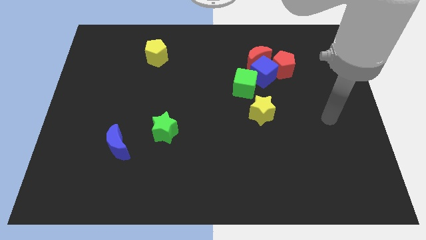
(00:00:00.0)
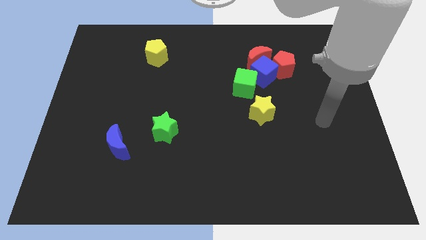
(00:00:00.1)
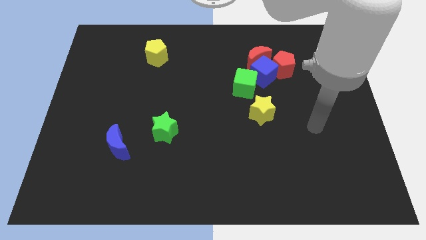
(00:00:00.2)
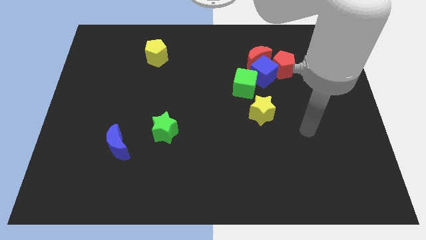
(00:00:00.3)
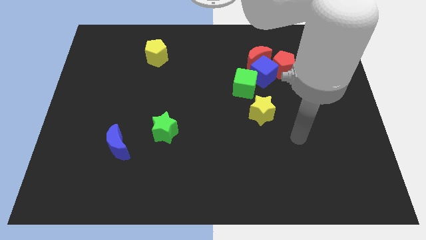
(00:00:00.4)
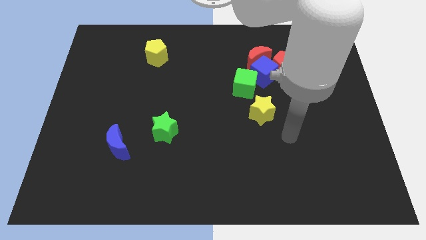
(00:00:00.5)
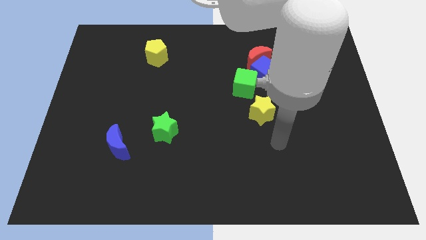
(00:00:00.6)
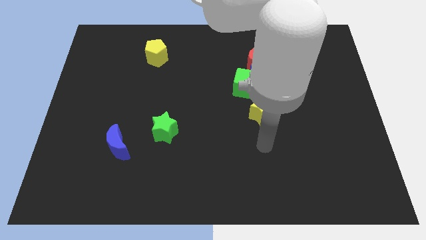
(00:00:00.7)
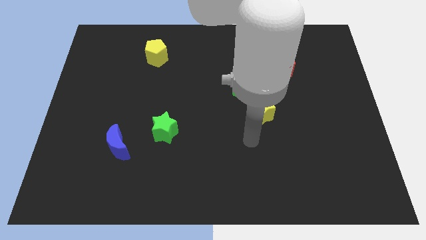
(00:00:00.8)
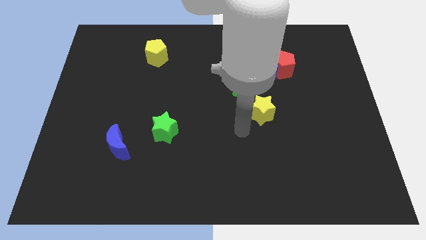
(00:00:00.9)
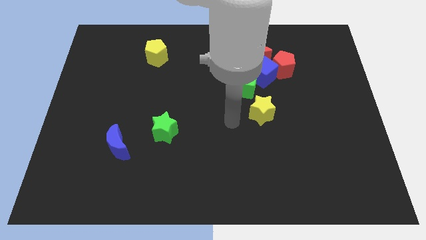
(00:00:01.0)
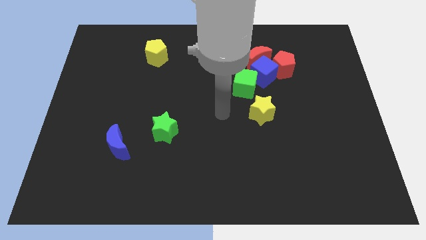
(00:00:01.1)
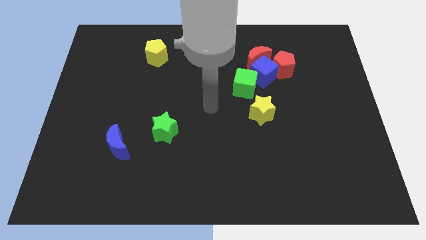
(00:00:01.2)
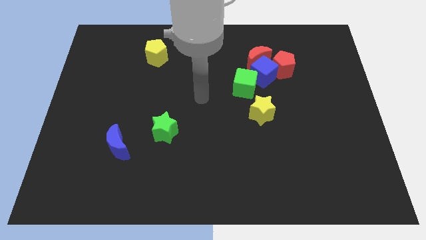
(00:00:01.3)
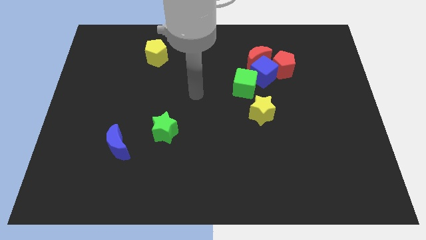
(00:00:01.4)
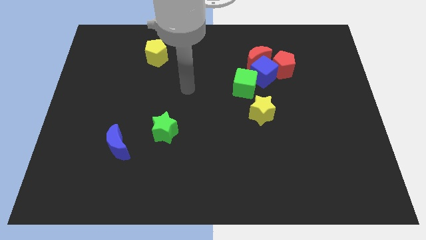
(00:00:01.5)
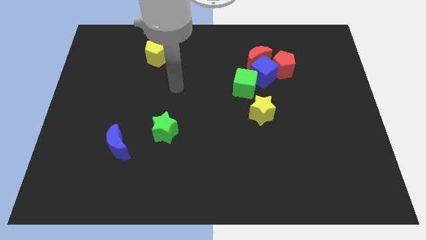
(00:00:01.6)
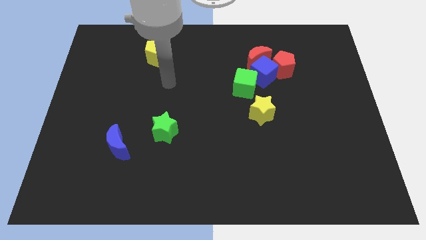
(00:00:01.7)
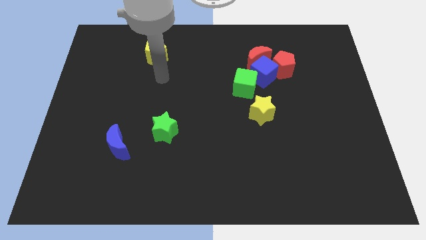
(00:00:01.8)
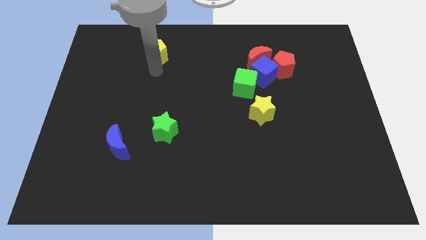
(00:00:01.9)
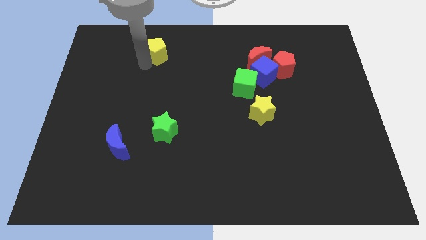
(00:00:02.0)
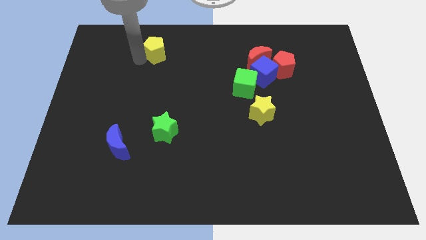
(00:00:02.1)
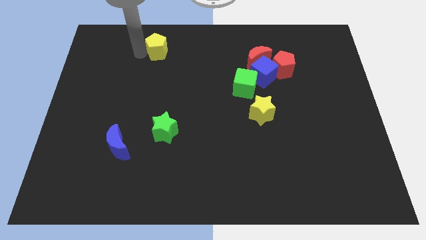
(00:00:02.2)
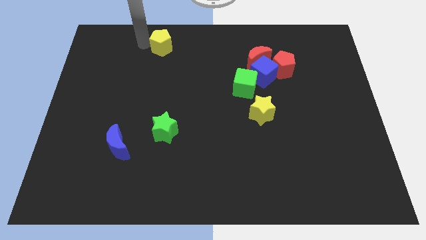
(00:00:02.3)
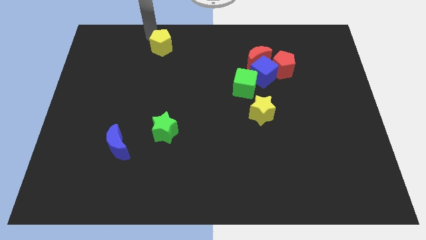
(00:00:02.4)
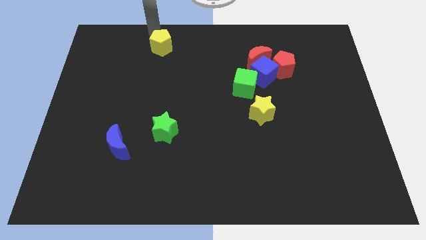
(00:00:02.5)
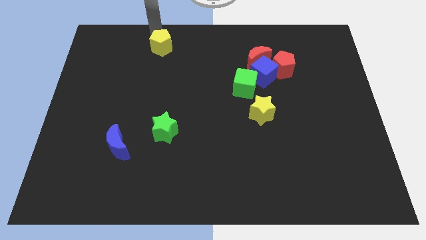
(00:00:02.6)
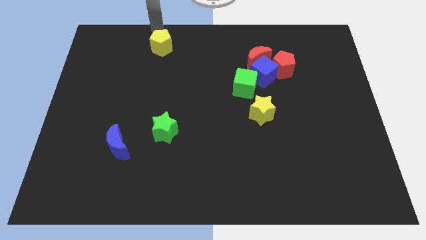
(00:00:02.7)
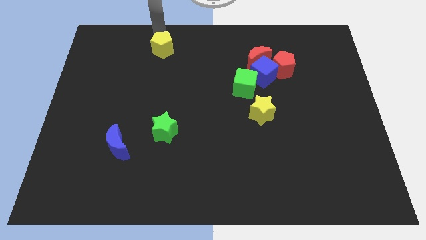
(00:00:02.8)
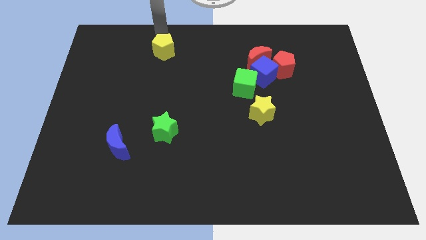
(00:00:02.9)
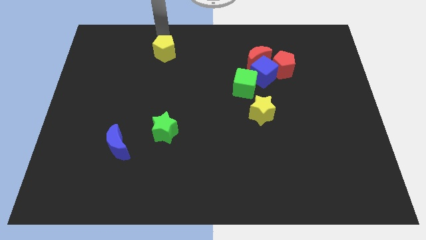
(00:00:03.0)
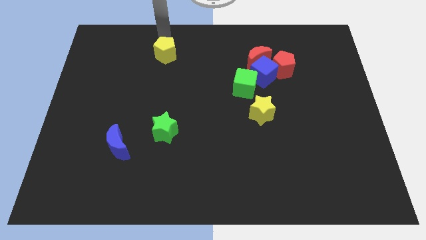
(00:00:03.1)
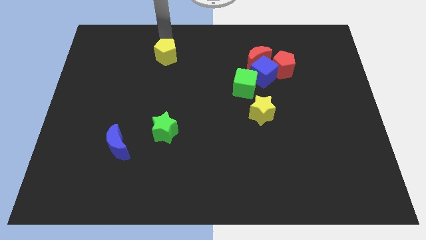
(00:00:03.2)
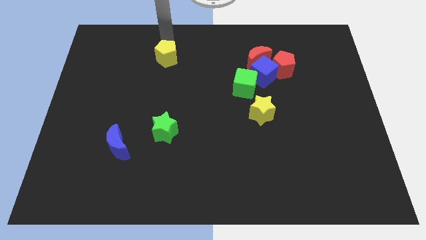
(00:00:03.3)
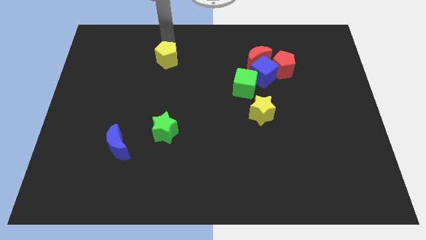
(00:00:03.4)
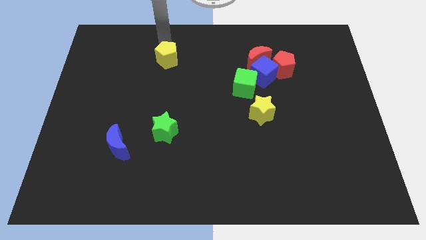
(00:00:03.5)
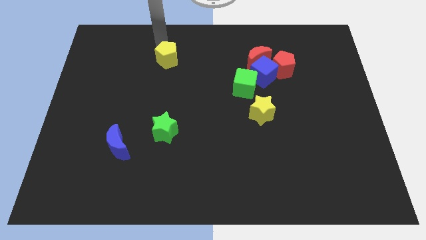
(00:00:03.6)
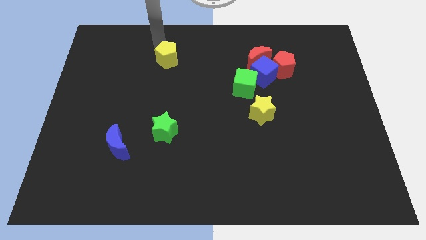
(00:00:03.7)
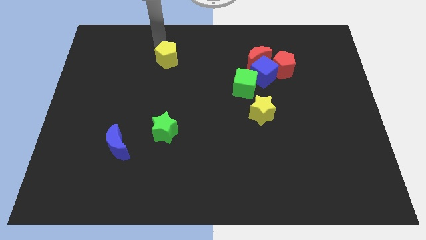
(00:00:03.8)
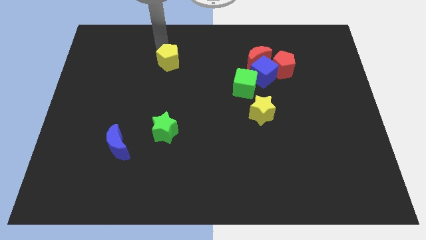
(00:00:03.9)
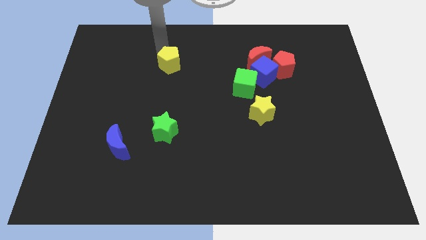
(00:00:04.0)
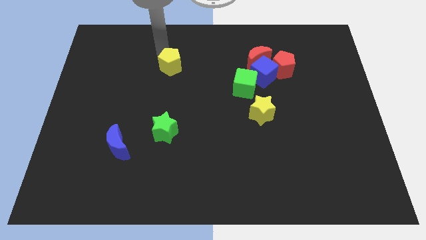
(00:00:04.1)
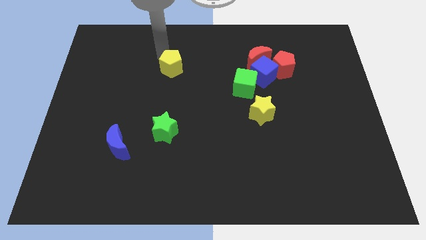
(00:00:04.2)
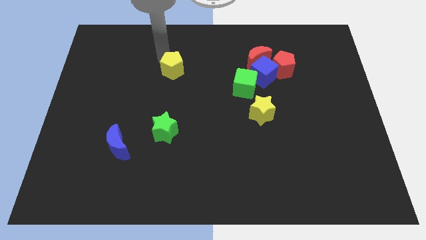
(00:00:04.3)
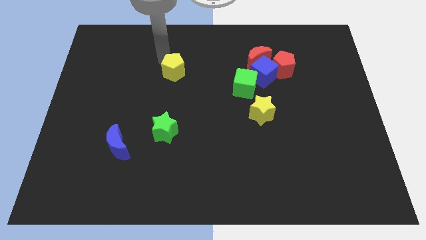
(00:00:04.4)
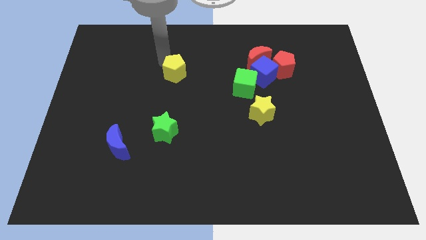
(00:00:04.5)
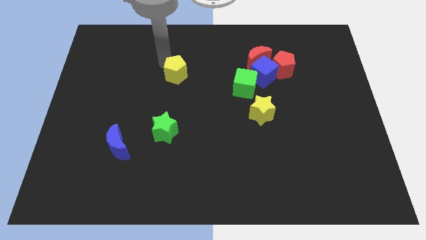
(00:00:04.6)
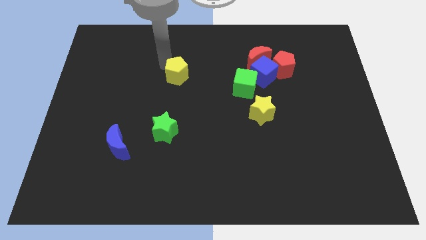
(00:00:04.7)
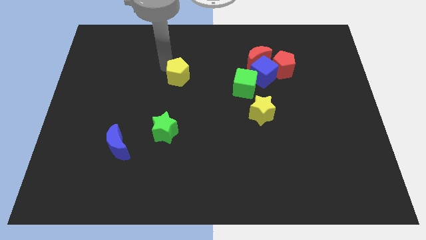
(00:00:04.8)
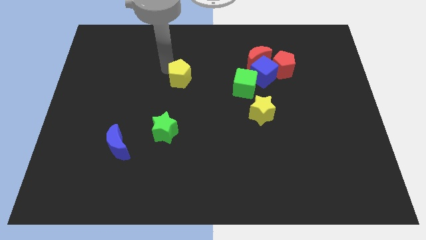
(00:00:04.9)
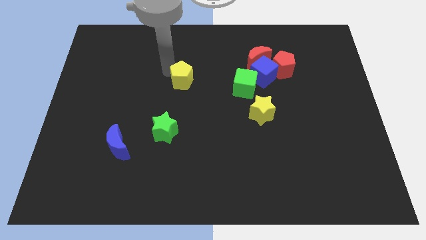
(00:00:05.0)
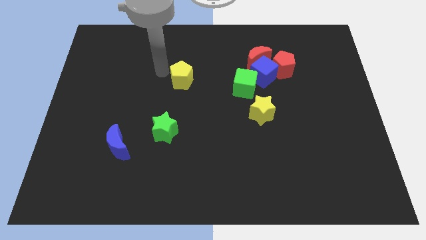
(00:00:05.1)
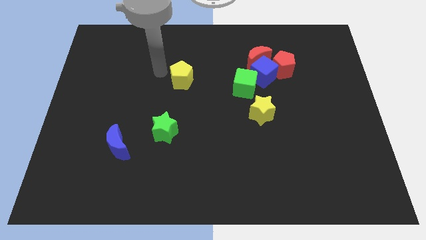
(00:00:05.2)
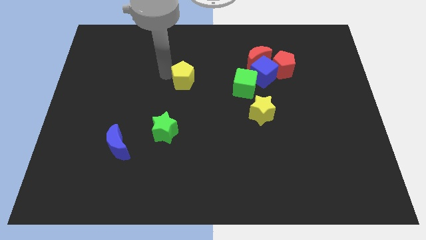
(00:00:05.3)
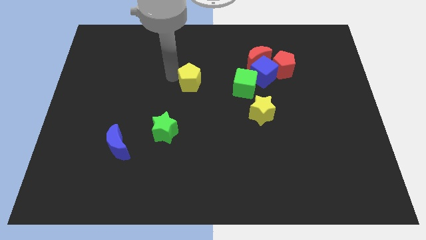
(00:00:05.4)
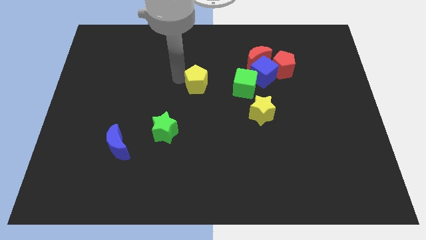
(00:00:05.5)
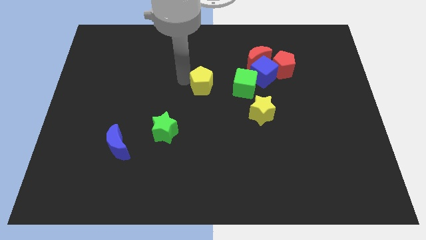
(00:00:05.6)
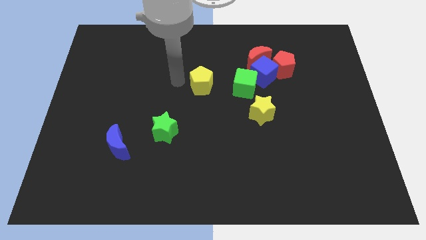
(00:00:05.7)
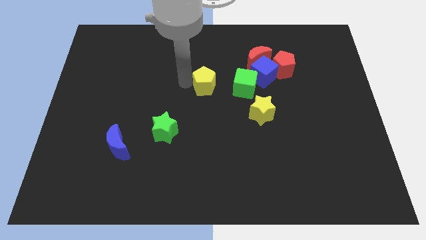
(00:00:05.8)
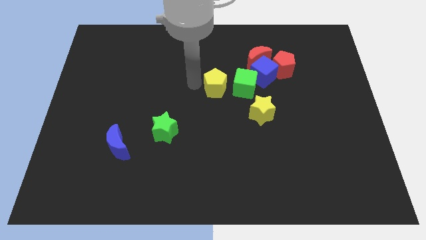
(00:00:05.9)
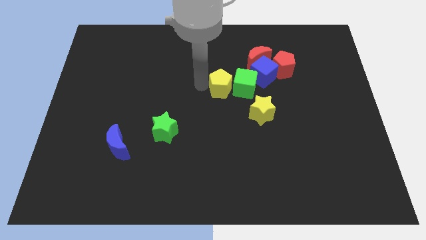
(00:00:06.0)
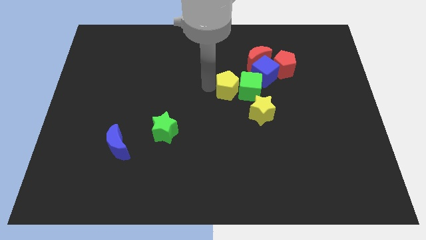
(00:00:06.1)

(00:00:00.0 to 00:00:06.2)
slide the yellow pentagon diagonally down and to the left of the blue cube
